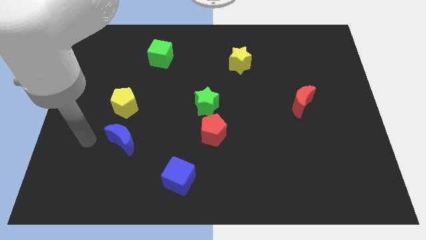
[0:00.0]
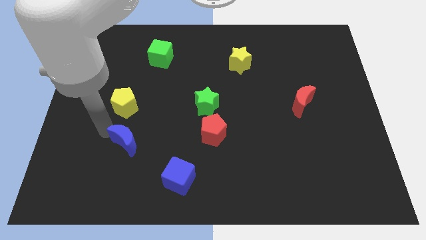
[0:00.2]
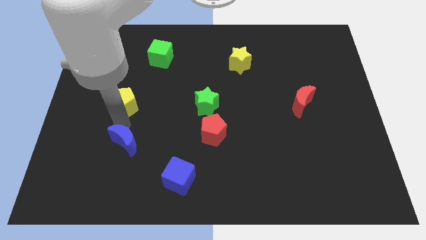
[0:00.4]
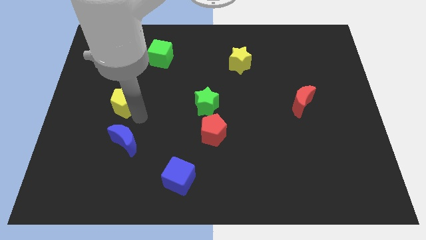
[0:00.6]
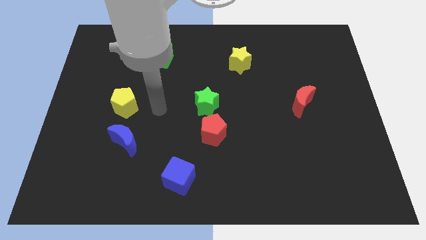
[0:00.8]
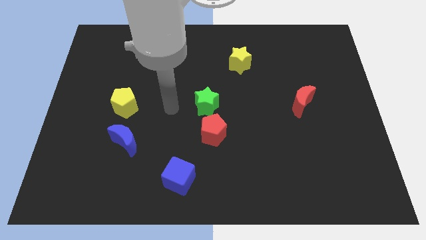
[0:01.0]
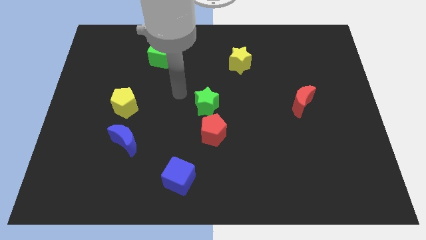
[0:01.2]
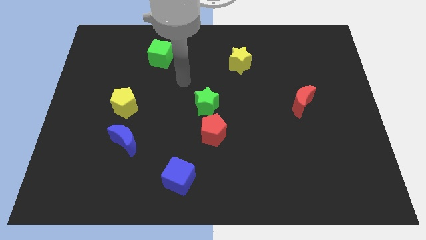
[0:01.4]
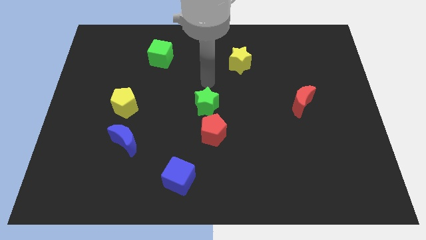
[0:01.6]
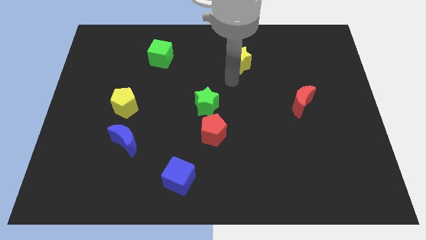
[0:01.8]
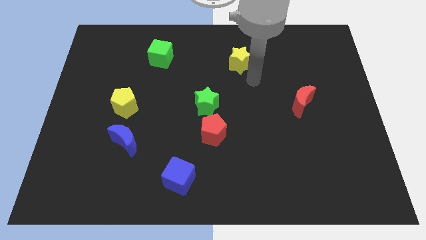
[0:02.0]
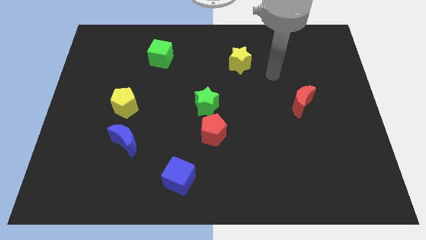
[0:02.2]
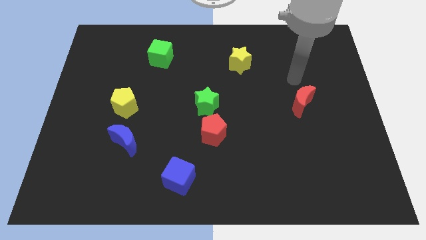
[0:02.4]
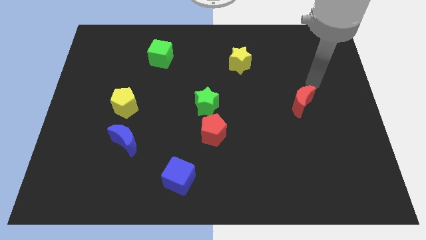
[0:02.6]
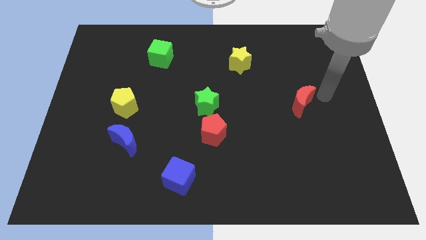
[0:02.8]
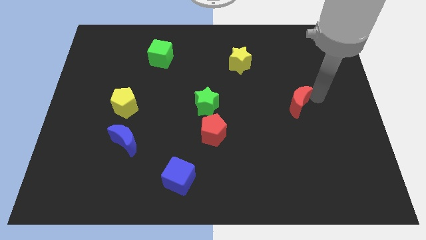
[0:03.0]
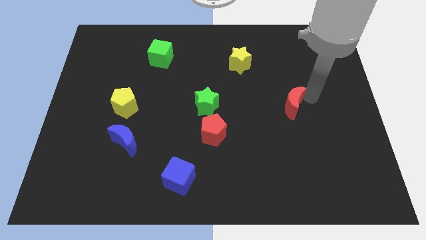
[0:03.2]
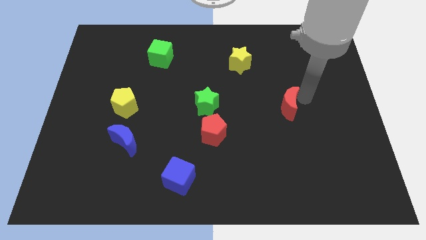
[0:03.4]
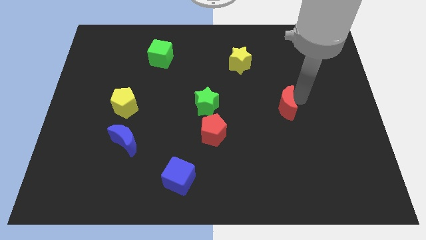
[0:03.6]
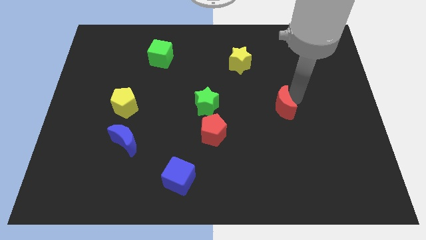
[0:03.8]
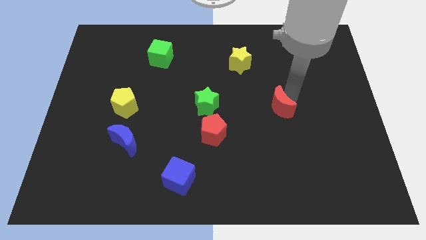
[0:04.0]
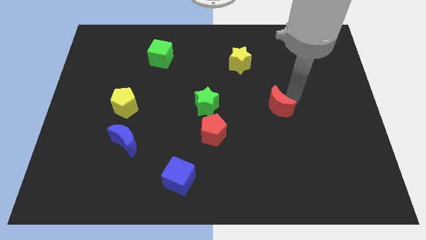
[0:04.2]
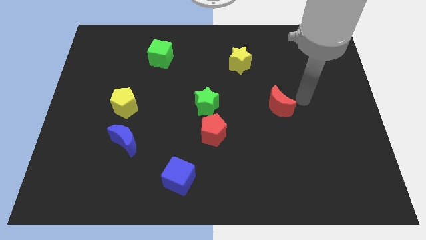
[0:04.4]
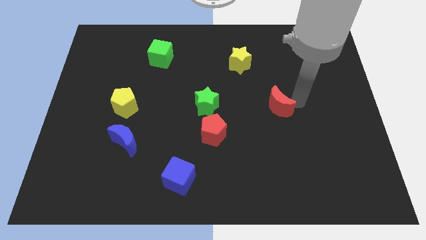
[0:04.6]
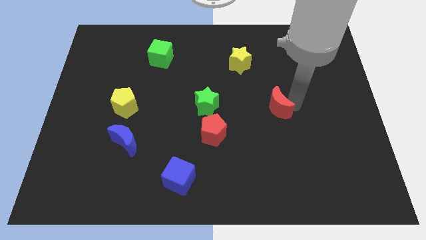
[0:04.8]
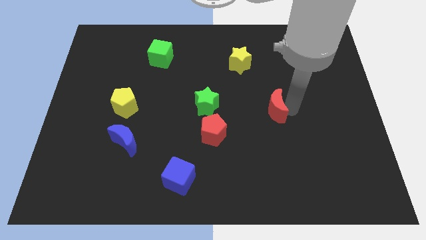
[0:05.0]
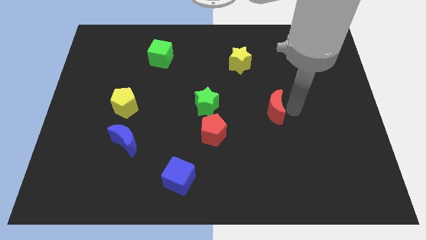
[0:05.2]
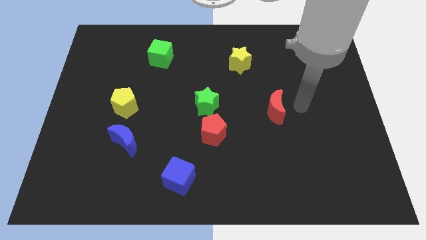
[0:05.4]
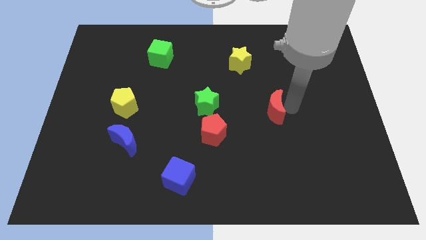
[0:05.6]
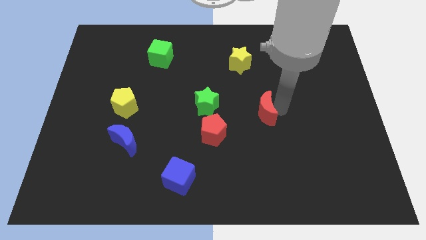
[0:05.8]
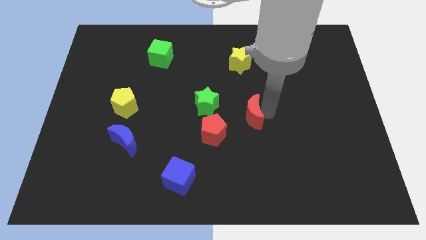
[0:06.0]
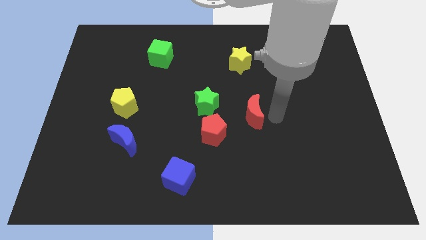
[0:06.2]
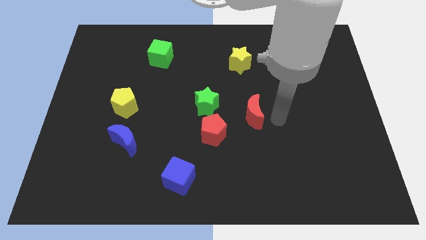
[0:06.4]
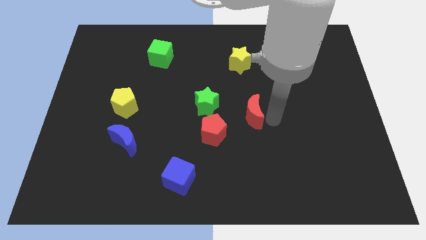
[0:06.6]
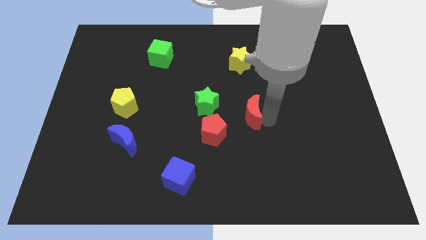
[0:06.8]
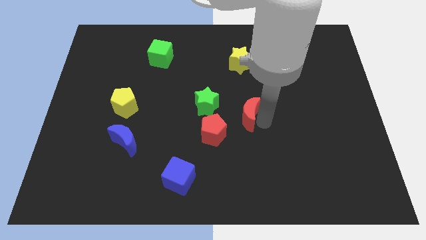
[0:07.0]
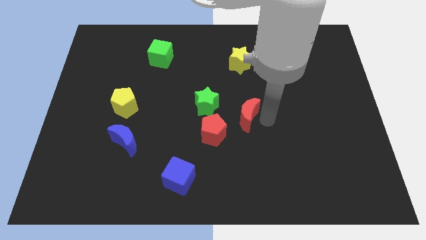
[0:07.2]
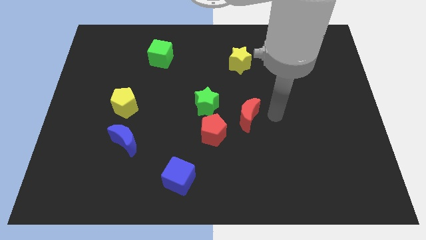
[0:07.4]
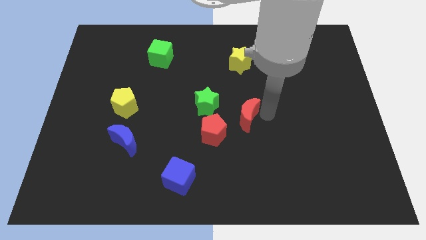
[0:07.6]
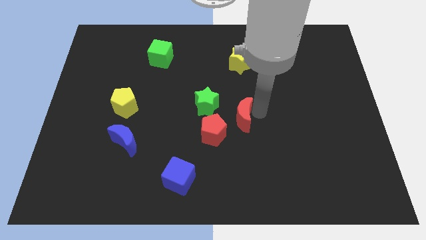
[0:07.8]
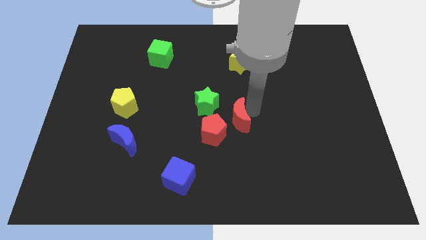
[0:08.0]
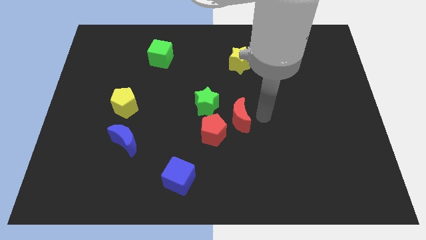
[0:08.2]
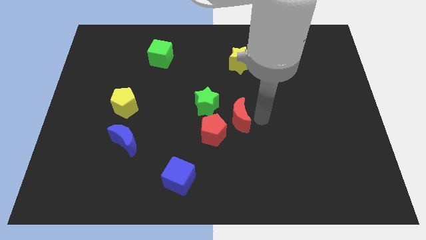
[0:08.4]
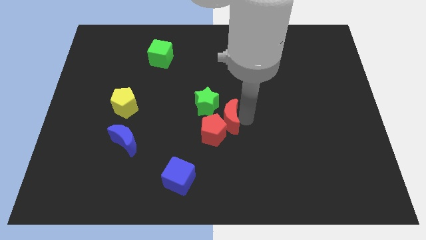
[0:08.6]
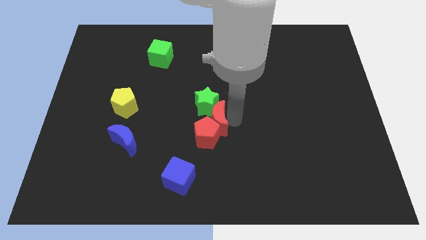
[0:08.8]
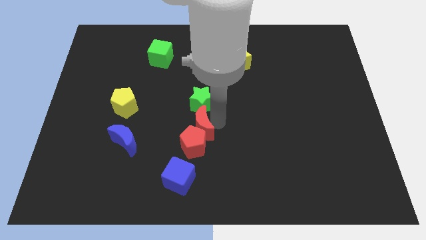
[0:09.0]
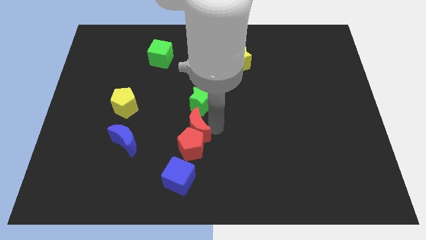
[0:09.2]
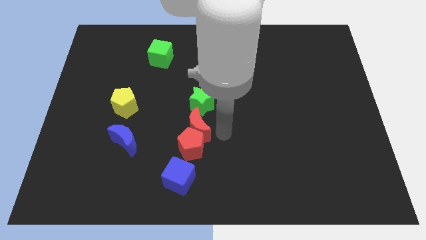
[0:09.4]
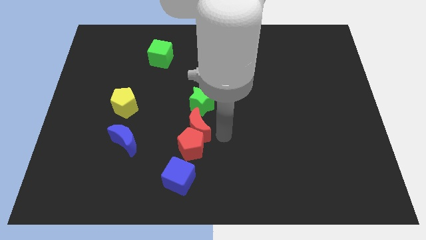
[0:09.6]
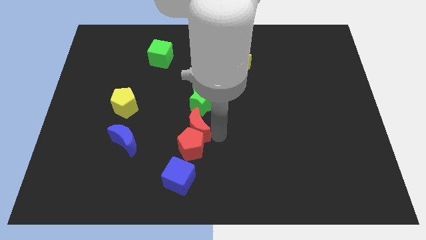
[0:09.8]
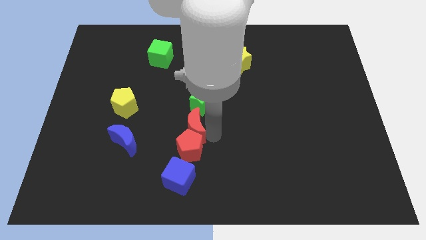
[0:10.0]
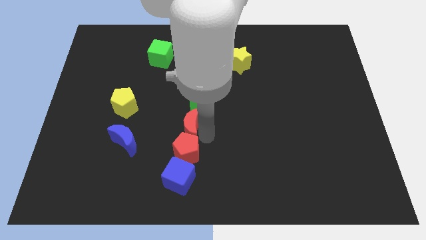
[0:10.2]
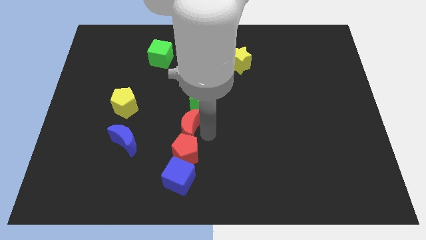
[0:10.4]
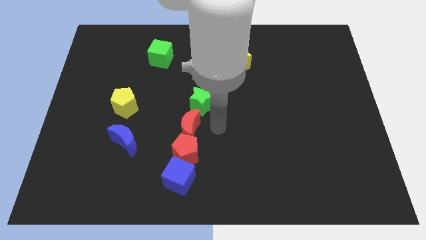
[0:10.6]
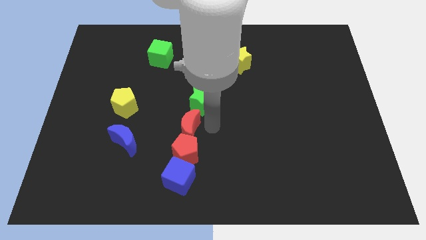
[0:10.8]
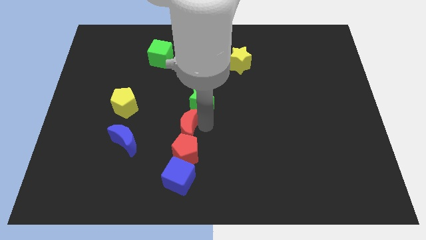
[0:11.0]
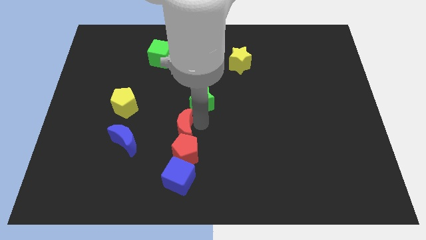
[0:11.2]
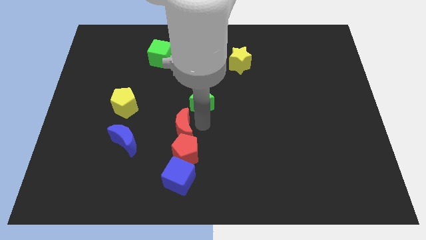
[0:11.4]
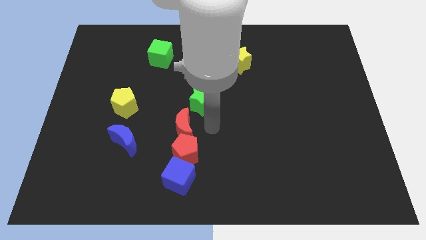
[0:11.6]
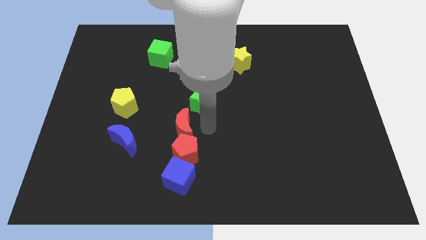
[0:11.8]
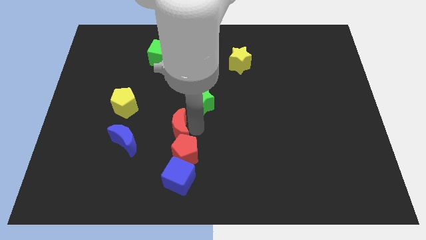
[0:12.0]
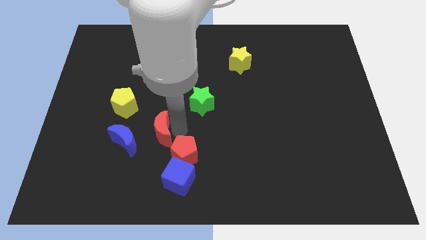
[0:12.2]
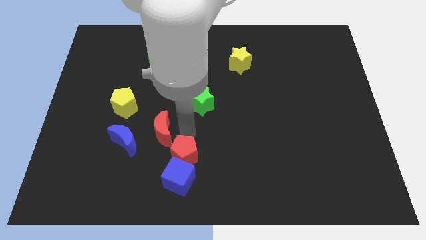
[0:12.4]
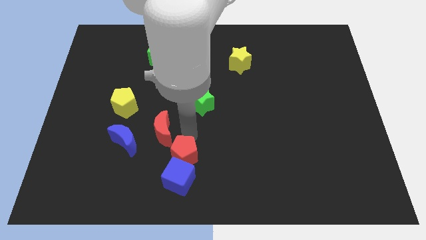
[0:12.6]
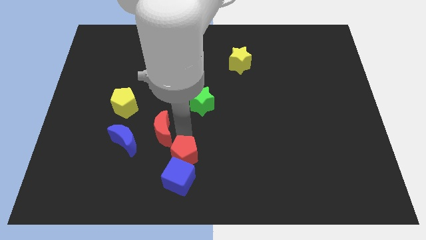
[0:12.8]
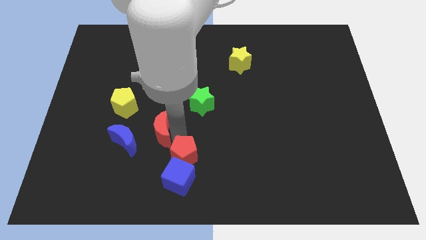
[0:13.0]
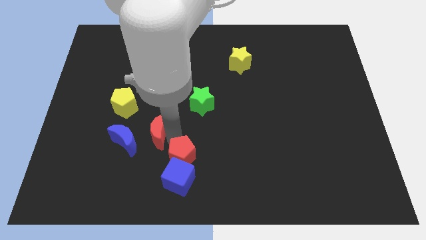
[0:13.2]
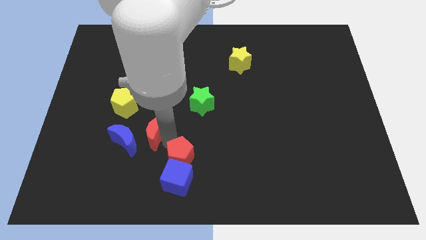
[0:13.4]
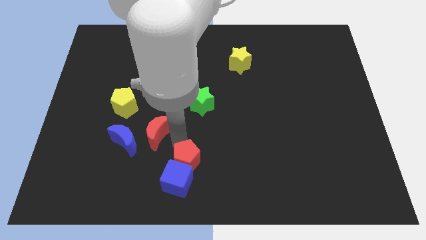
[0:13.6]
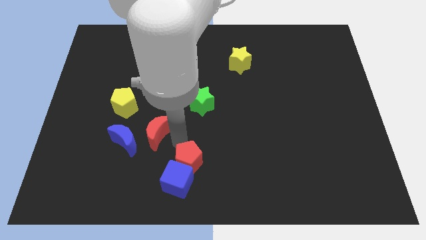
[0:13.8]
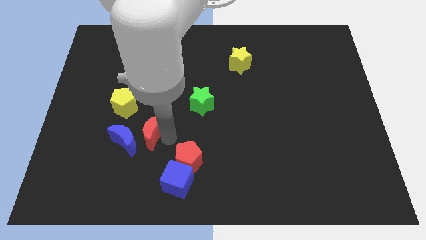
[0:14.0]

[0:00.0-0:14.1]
move the red moon next to the blue moon
